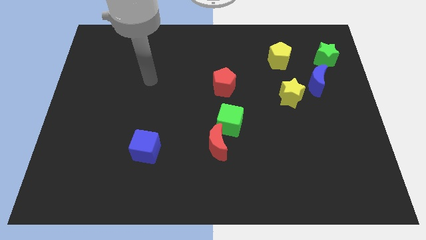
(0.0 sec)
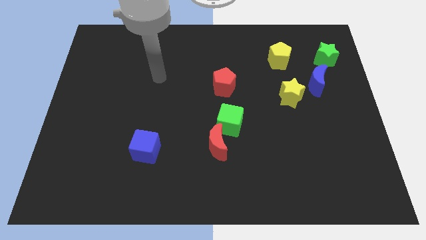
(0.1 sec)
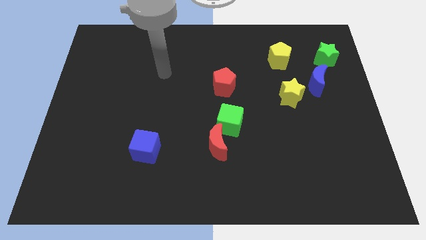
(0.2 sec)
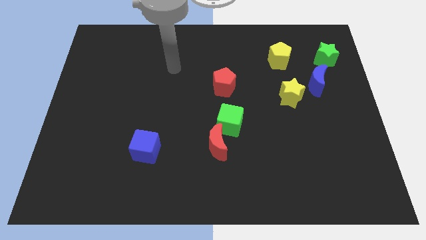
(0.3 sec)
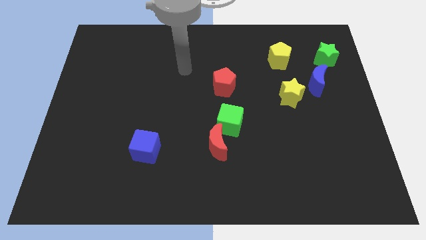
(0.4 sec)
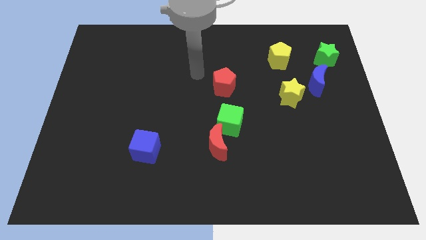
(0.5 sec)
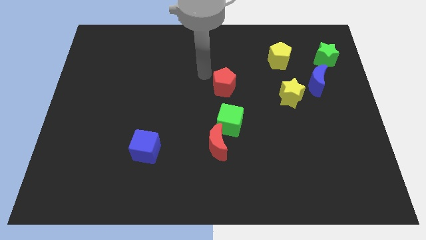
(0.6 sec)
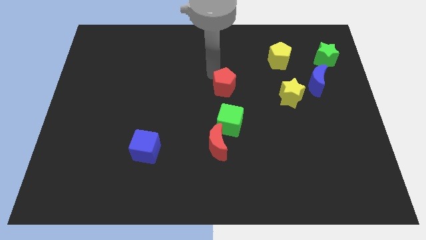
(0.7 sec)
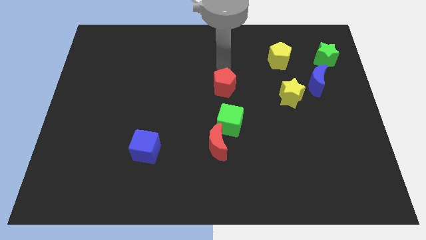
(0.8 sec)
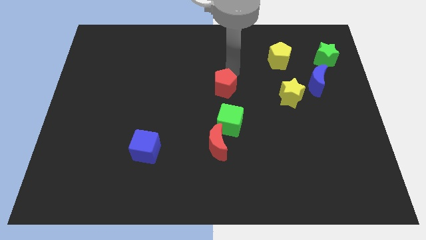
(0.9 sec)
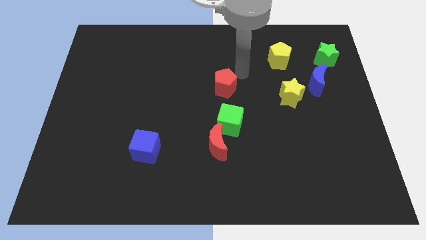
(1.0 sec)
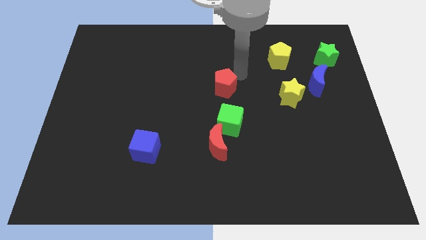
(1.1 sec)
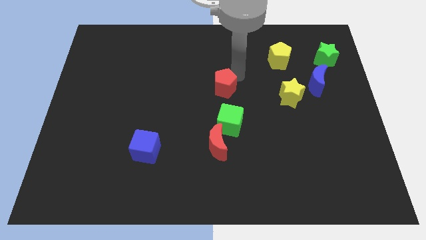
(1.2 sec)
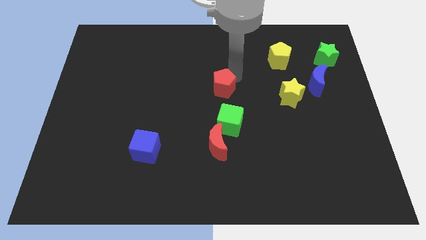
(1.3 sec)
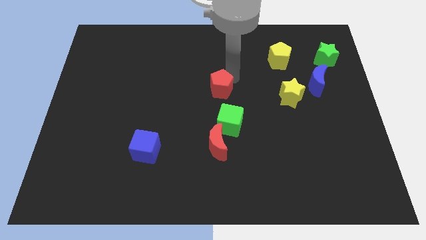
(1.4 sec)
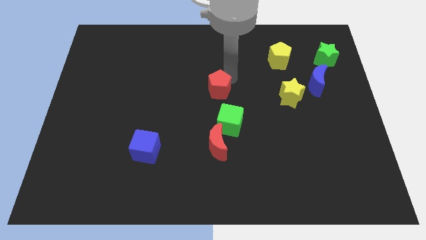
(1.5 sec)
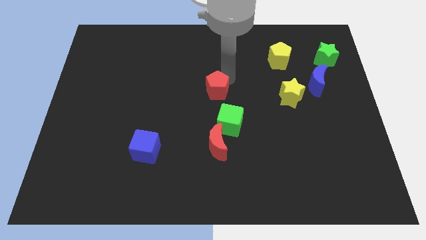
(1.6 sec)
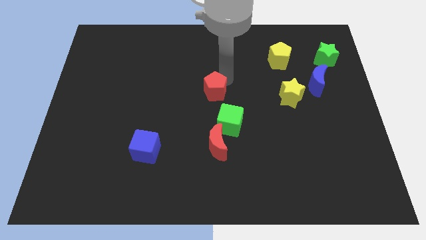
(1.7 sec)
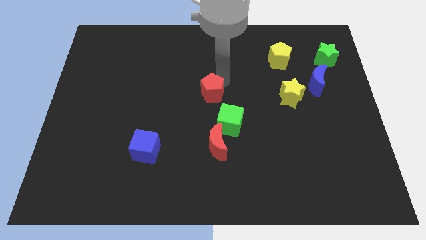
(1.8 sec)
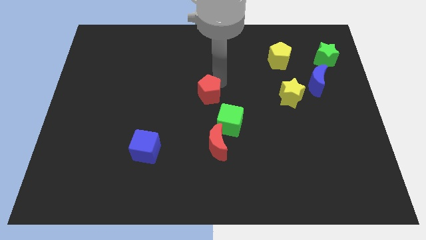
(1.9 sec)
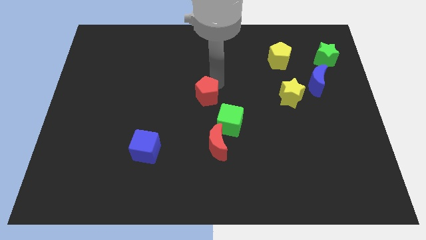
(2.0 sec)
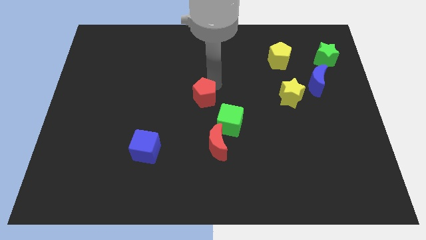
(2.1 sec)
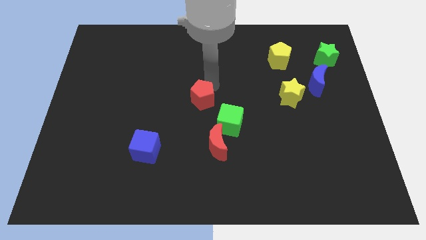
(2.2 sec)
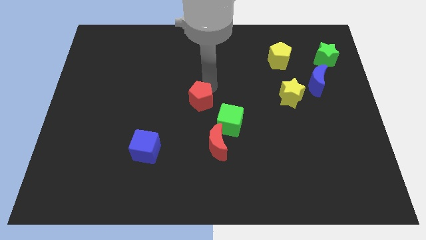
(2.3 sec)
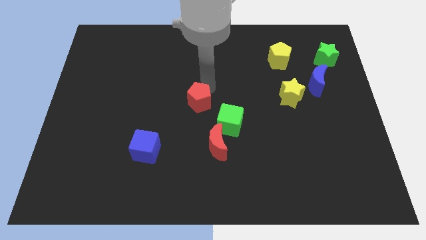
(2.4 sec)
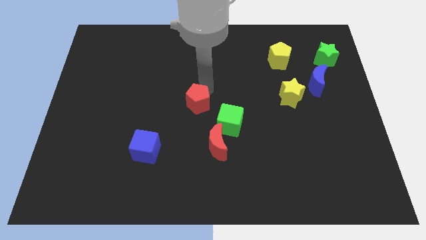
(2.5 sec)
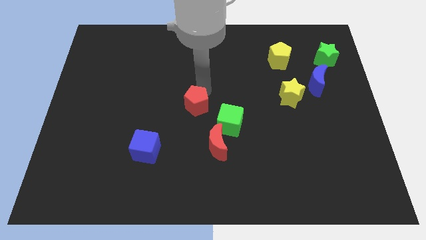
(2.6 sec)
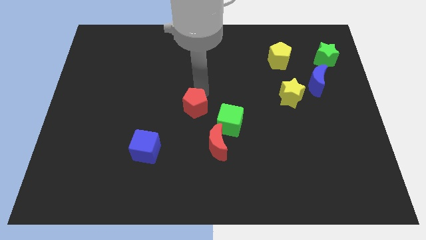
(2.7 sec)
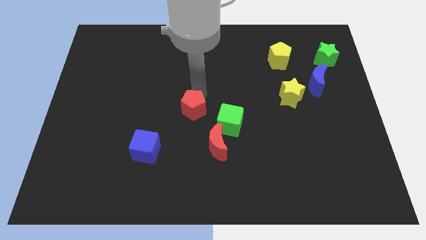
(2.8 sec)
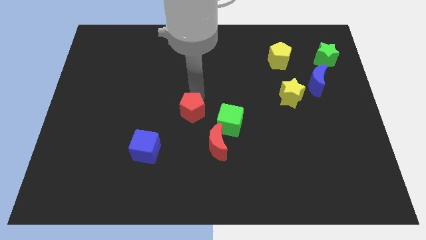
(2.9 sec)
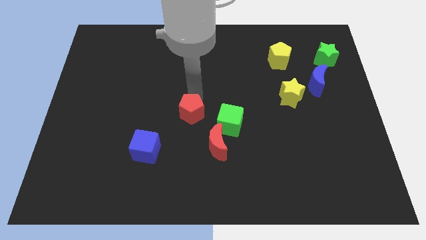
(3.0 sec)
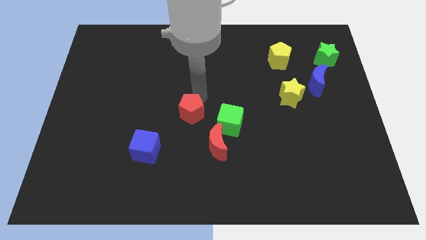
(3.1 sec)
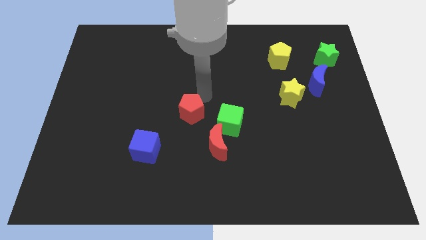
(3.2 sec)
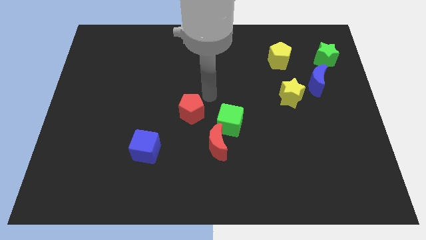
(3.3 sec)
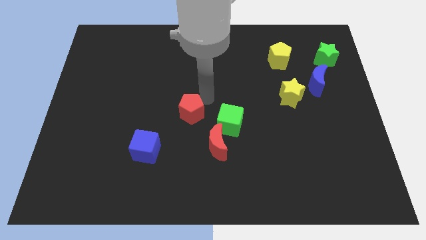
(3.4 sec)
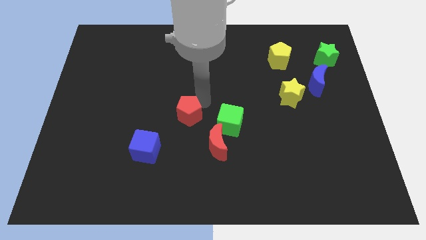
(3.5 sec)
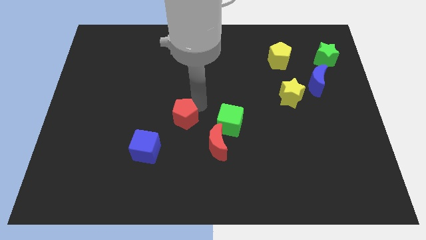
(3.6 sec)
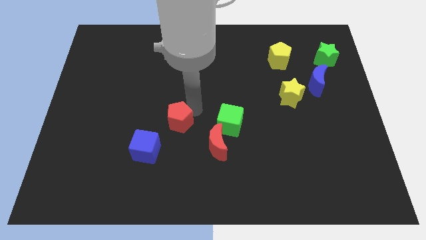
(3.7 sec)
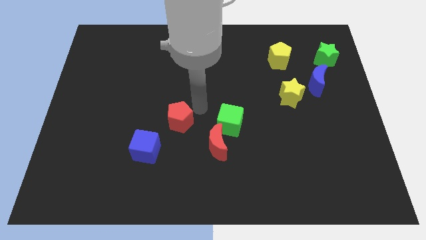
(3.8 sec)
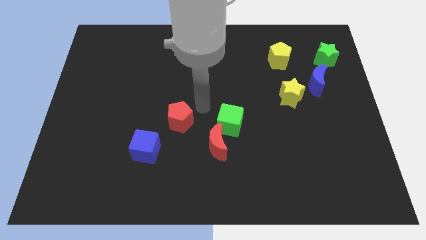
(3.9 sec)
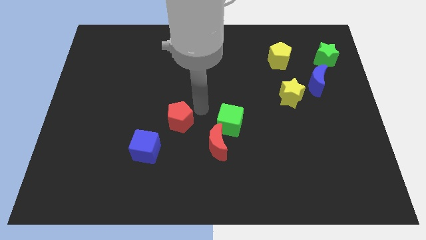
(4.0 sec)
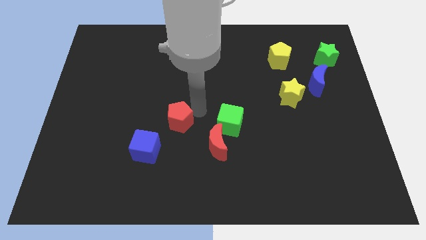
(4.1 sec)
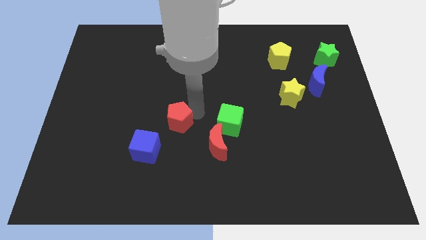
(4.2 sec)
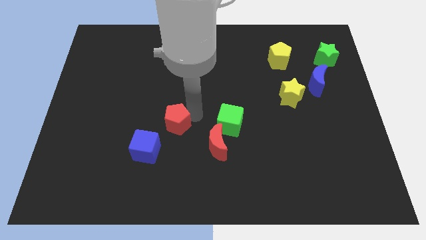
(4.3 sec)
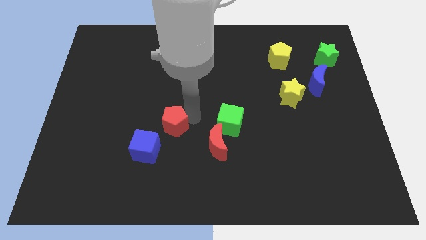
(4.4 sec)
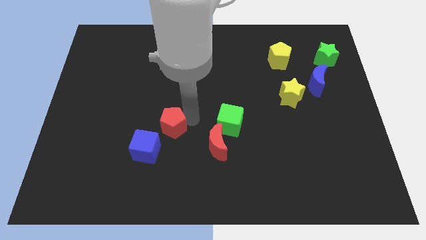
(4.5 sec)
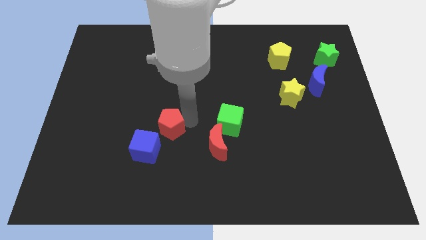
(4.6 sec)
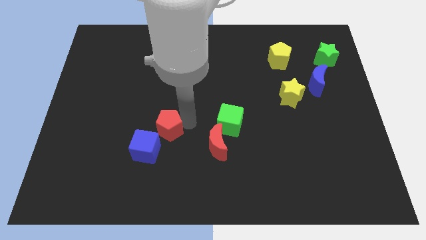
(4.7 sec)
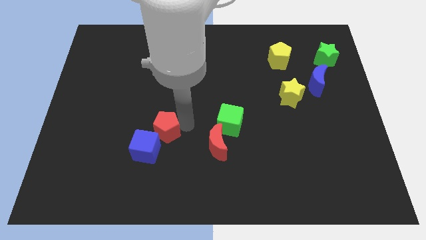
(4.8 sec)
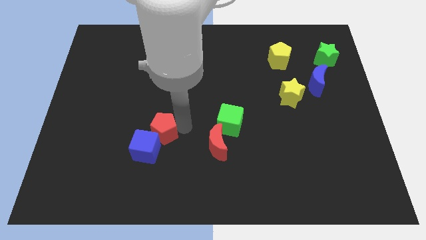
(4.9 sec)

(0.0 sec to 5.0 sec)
move the red pentagon next to the blue cube

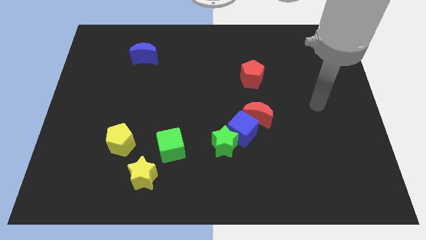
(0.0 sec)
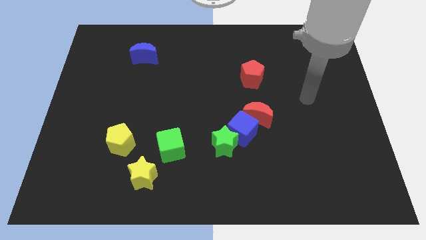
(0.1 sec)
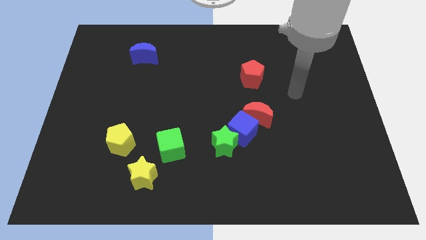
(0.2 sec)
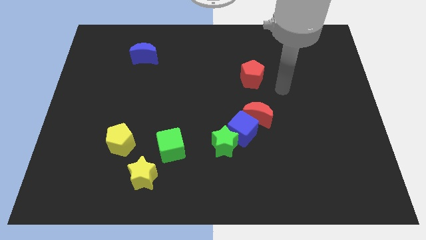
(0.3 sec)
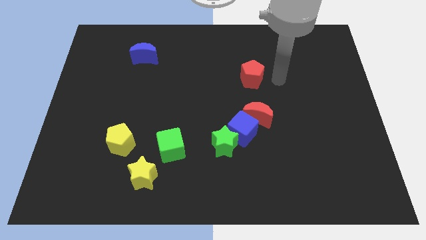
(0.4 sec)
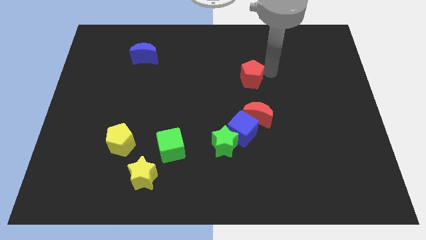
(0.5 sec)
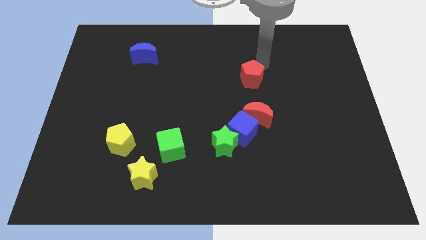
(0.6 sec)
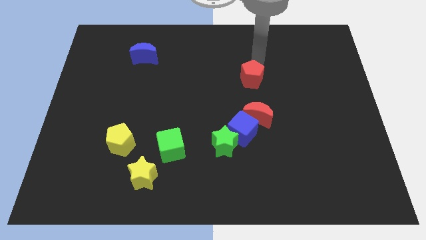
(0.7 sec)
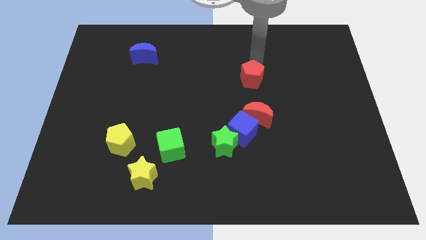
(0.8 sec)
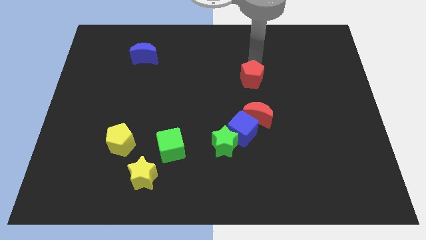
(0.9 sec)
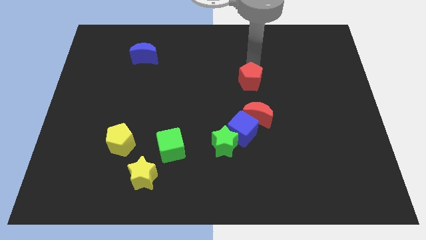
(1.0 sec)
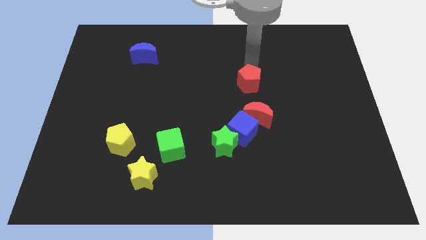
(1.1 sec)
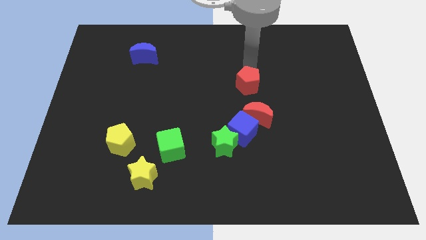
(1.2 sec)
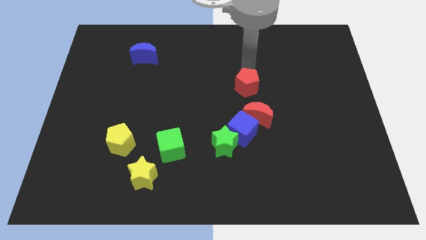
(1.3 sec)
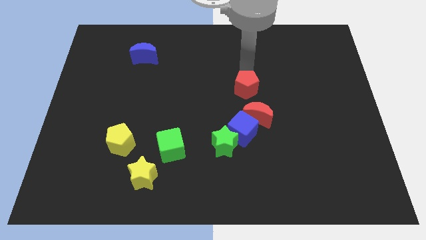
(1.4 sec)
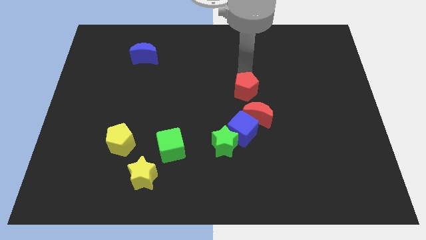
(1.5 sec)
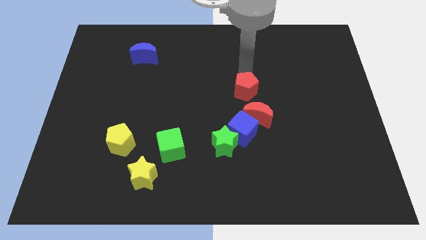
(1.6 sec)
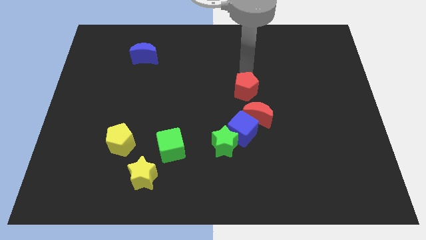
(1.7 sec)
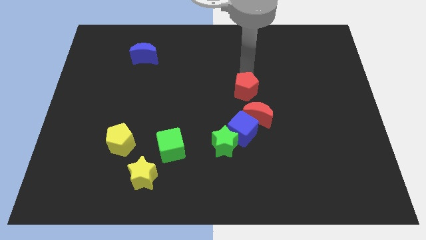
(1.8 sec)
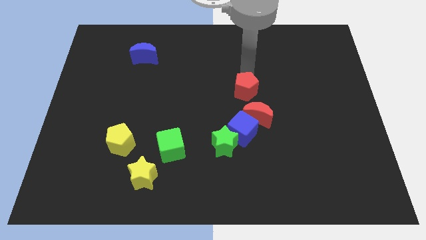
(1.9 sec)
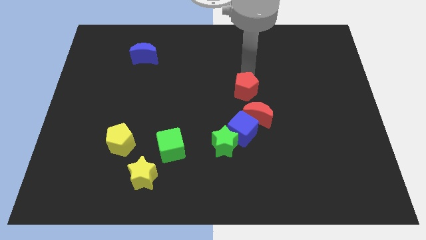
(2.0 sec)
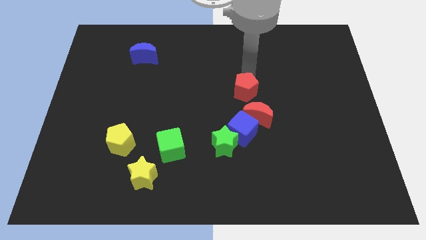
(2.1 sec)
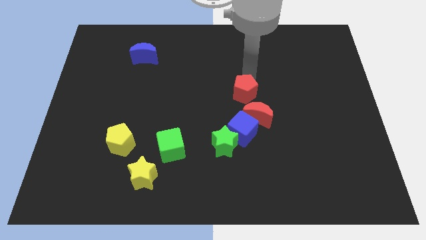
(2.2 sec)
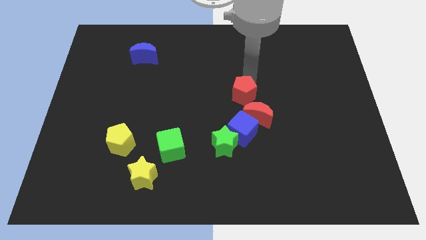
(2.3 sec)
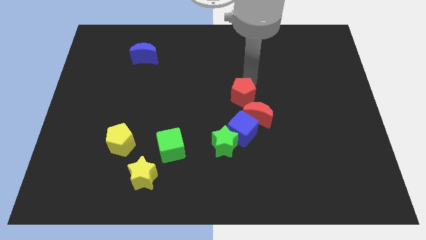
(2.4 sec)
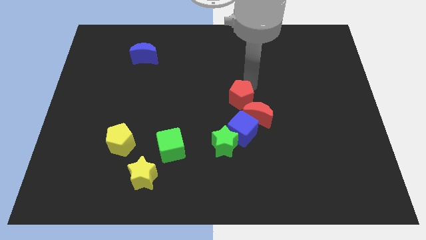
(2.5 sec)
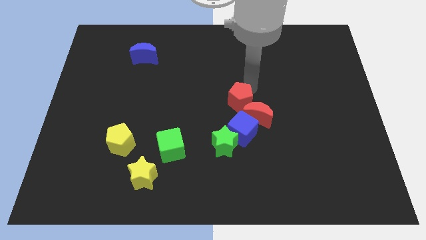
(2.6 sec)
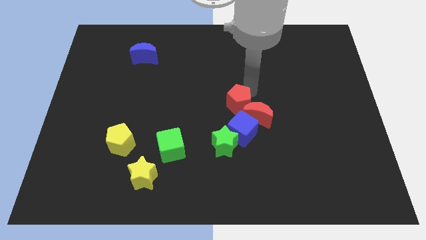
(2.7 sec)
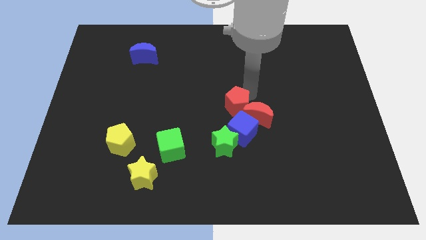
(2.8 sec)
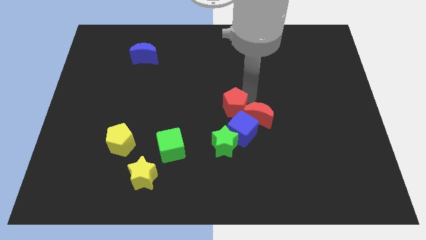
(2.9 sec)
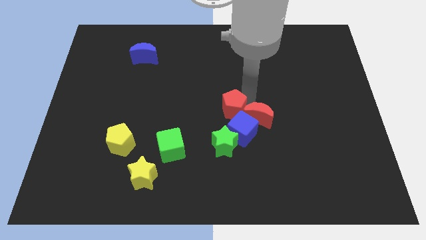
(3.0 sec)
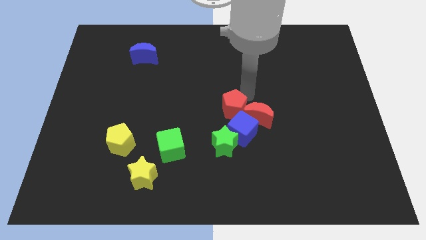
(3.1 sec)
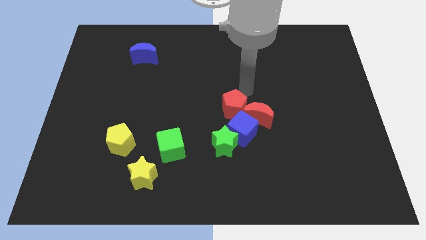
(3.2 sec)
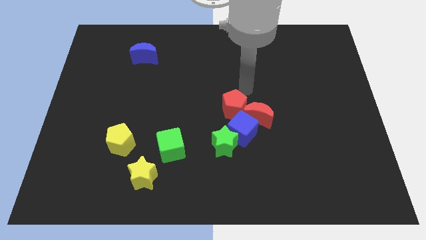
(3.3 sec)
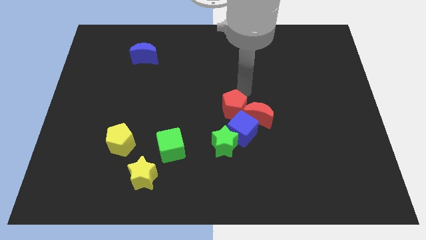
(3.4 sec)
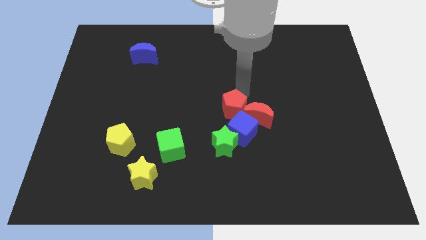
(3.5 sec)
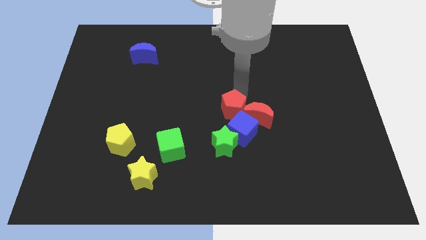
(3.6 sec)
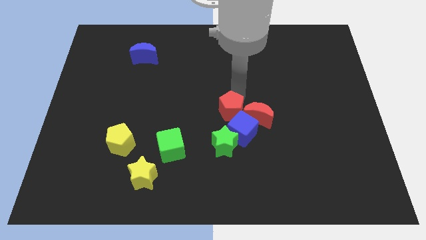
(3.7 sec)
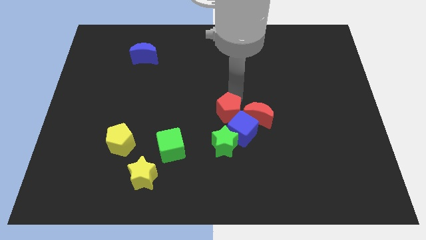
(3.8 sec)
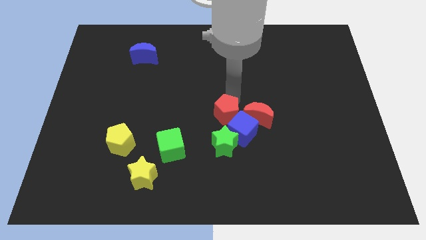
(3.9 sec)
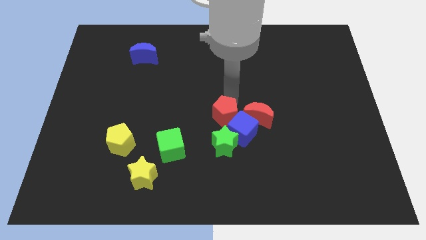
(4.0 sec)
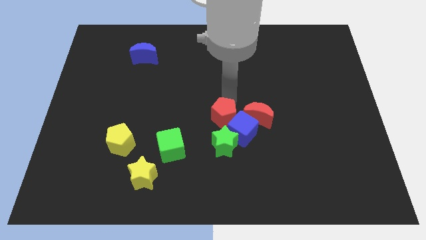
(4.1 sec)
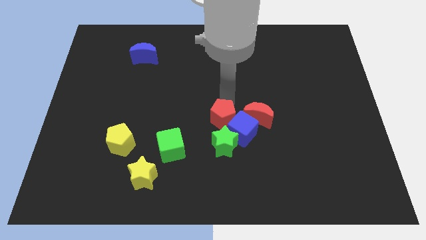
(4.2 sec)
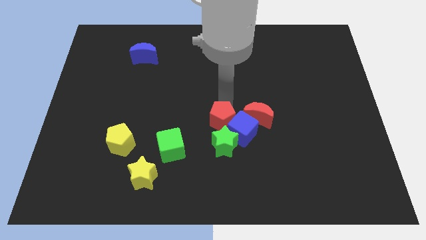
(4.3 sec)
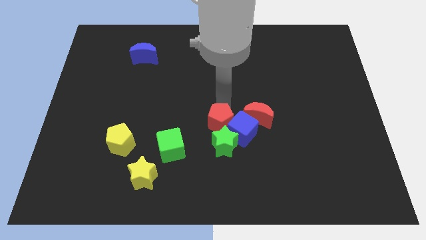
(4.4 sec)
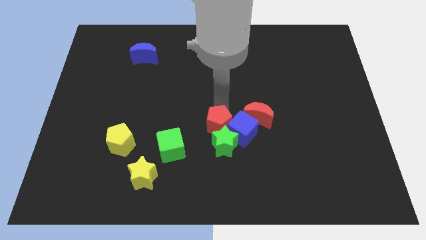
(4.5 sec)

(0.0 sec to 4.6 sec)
slide the red pentagon close to the green star
